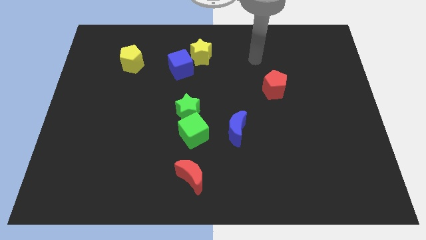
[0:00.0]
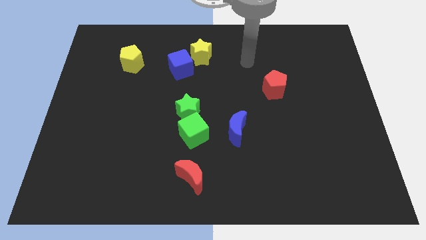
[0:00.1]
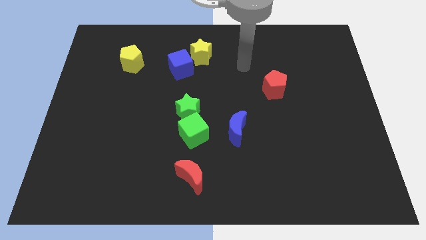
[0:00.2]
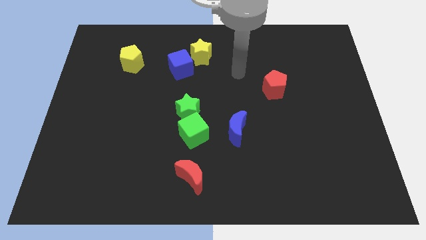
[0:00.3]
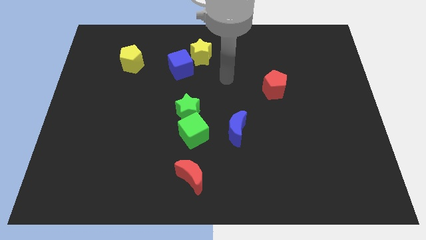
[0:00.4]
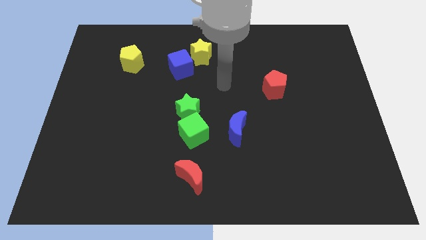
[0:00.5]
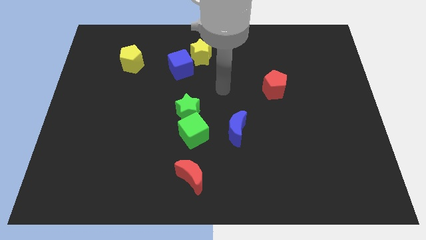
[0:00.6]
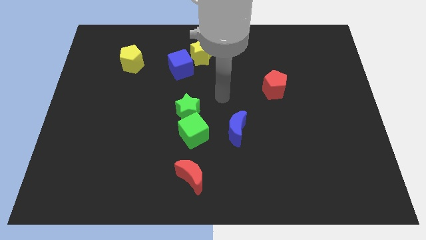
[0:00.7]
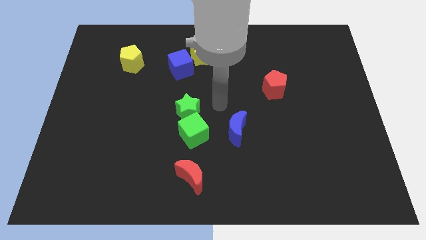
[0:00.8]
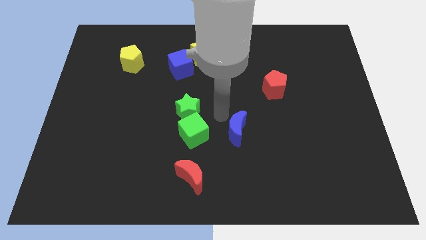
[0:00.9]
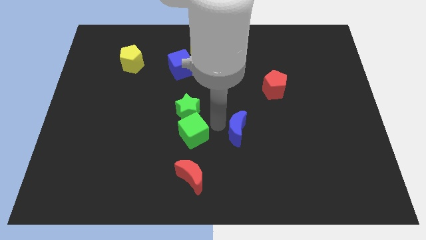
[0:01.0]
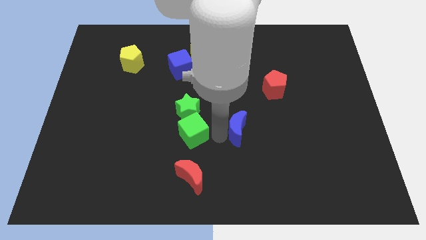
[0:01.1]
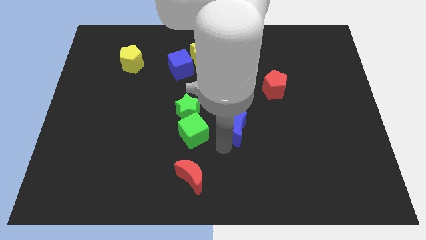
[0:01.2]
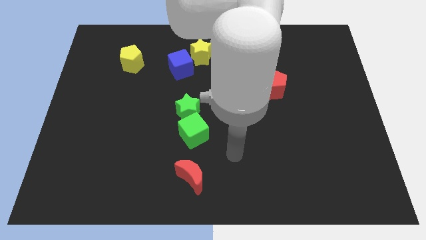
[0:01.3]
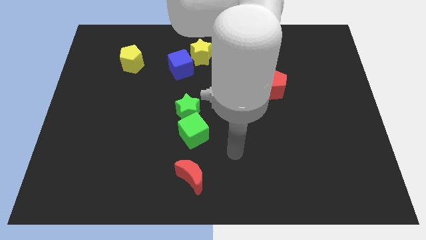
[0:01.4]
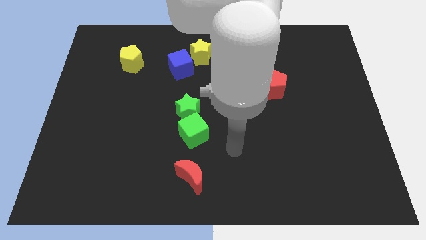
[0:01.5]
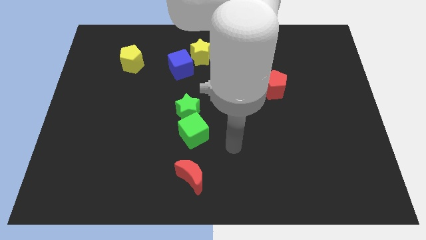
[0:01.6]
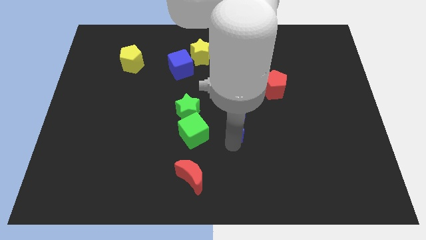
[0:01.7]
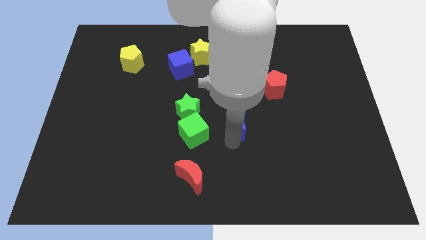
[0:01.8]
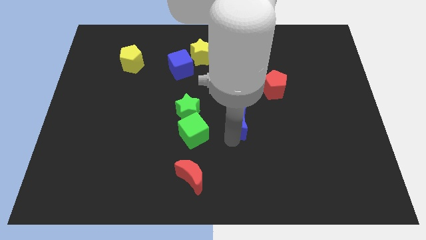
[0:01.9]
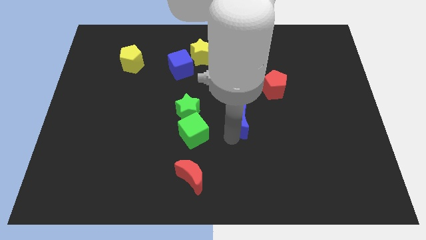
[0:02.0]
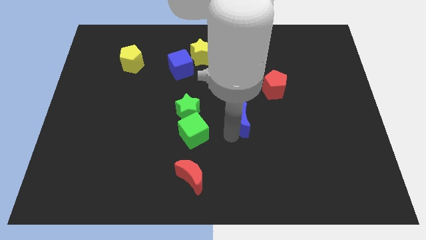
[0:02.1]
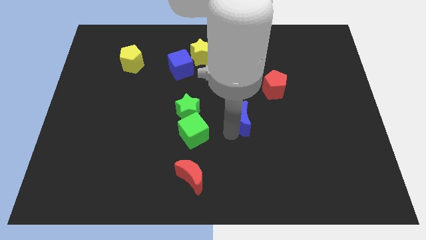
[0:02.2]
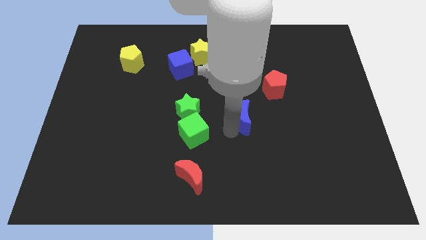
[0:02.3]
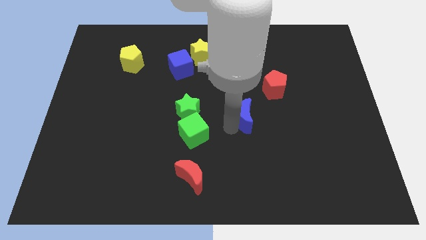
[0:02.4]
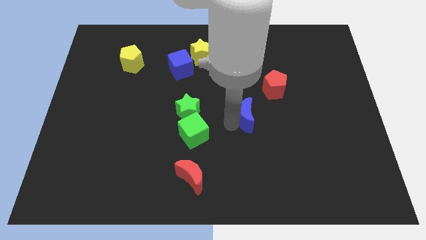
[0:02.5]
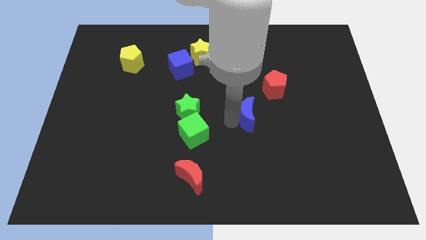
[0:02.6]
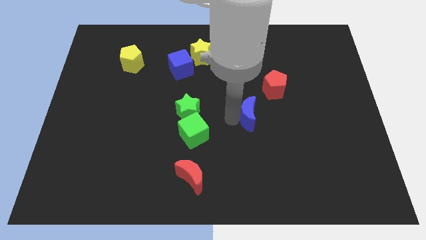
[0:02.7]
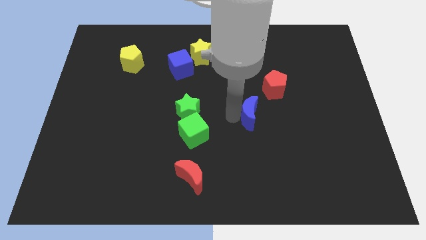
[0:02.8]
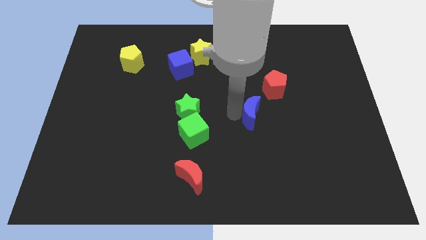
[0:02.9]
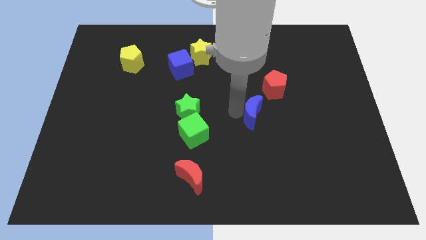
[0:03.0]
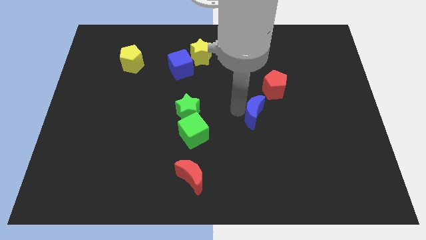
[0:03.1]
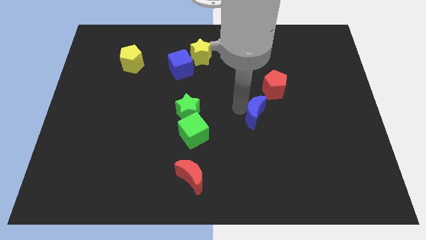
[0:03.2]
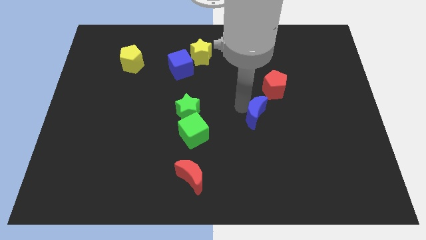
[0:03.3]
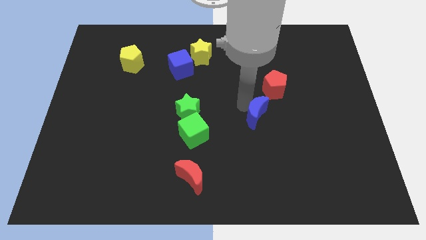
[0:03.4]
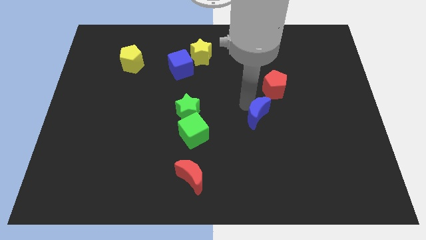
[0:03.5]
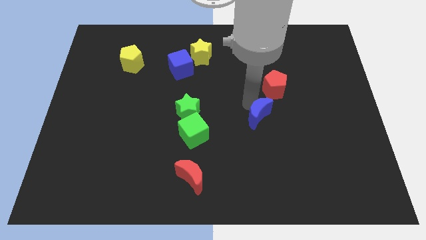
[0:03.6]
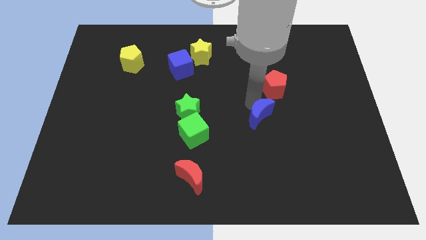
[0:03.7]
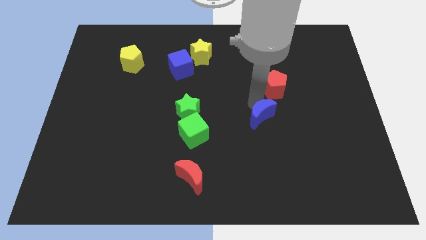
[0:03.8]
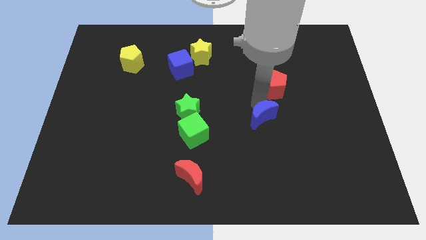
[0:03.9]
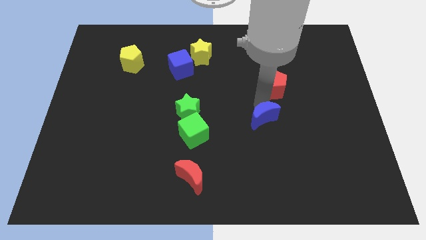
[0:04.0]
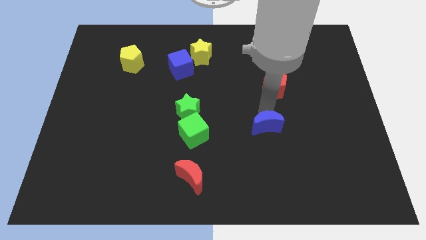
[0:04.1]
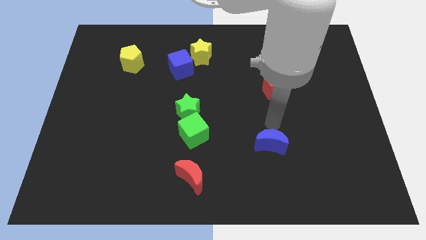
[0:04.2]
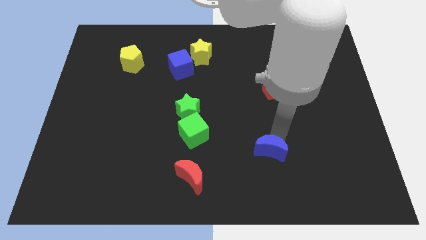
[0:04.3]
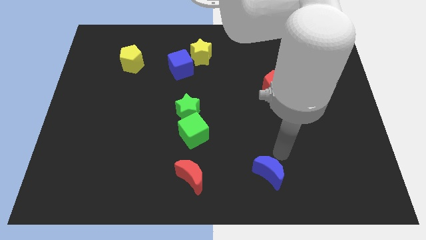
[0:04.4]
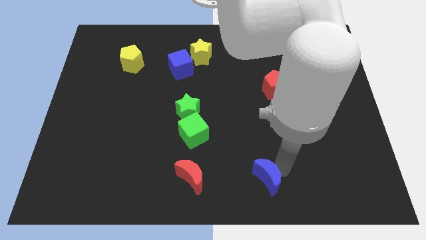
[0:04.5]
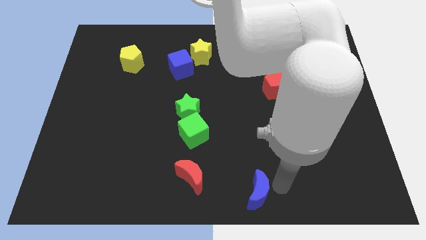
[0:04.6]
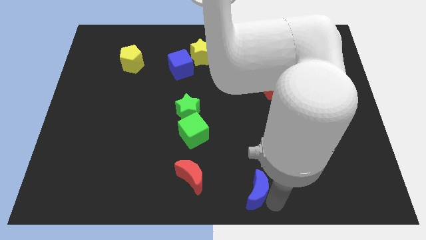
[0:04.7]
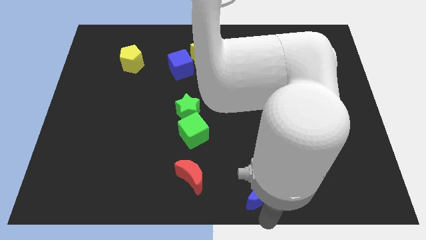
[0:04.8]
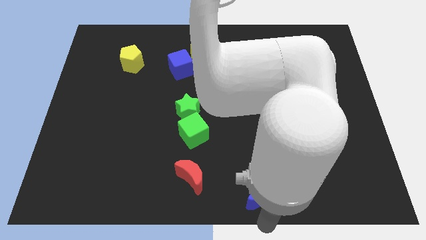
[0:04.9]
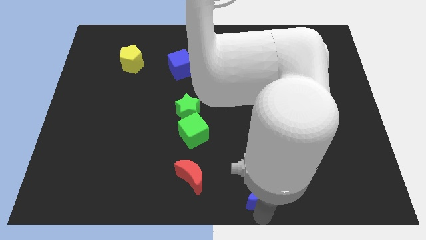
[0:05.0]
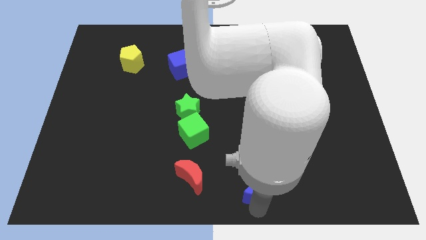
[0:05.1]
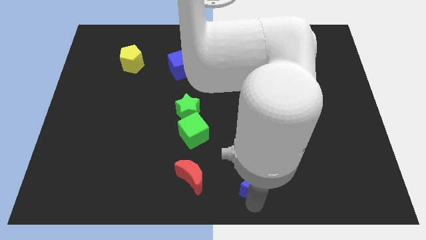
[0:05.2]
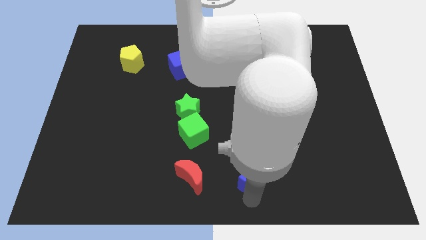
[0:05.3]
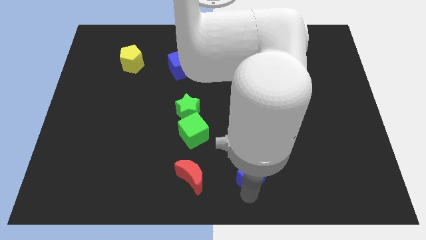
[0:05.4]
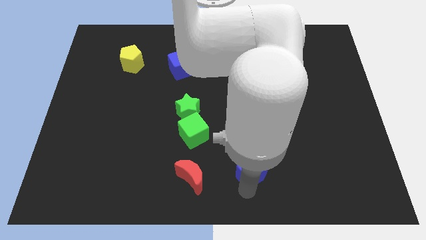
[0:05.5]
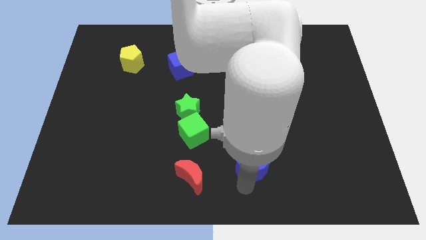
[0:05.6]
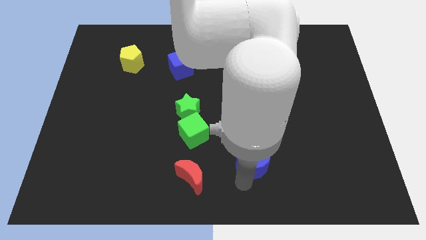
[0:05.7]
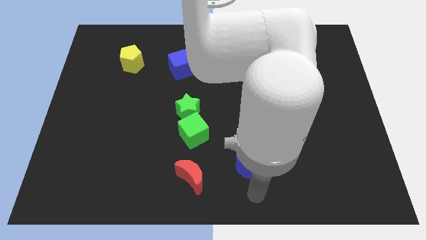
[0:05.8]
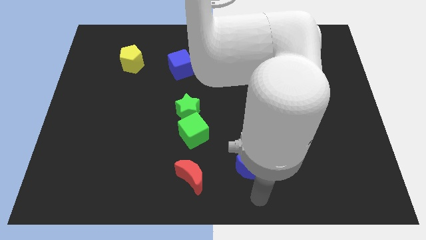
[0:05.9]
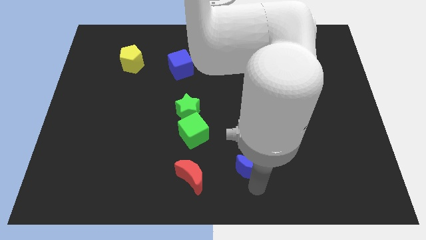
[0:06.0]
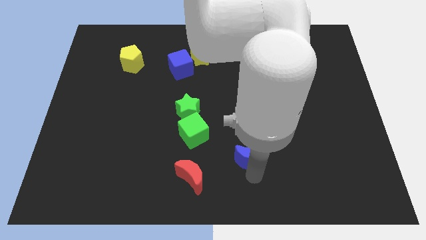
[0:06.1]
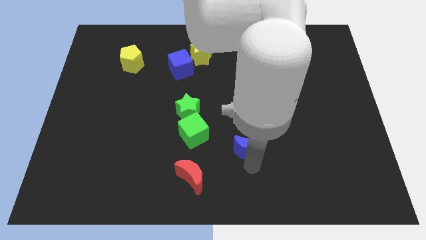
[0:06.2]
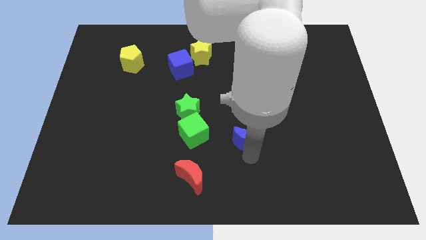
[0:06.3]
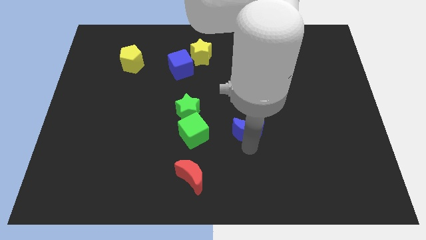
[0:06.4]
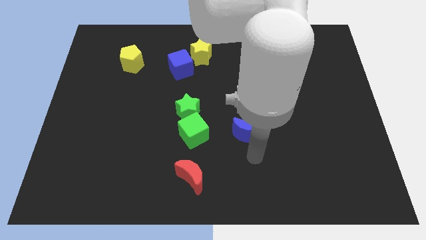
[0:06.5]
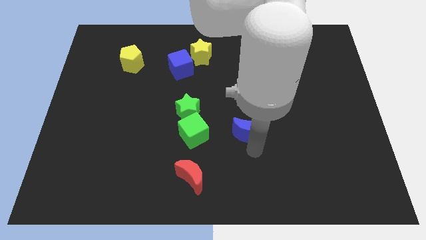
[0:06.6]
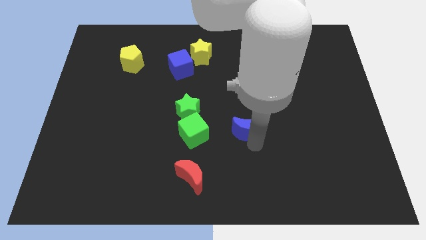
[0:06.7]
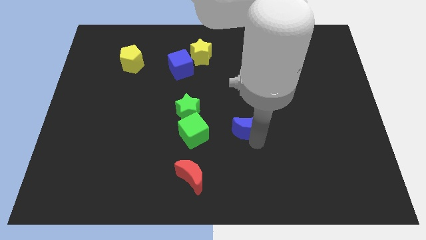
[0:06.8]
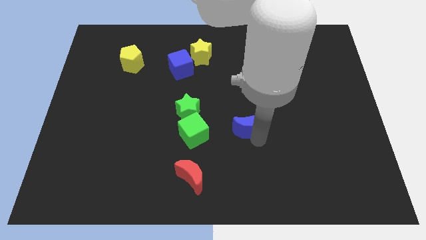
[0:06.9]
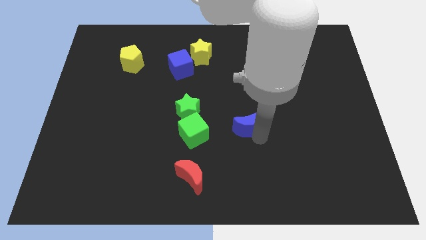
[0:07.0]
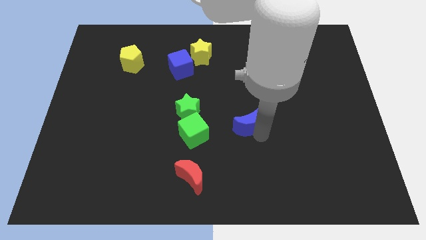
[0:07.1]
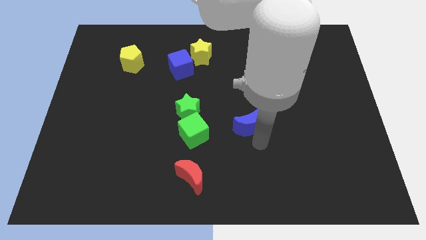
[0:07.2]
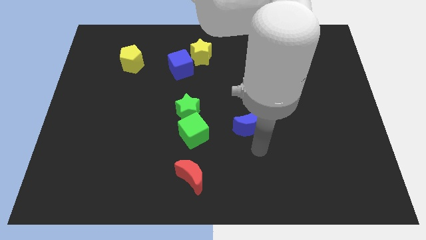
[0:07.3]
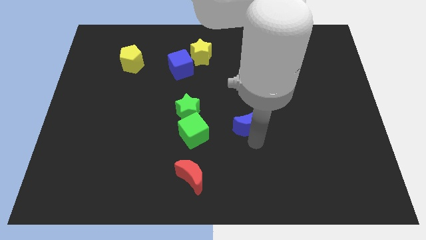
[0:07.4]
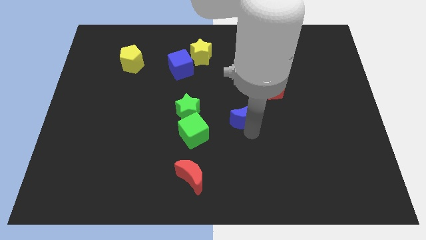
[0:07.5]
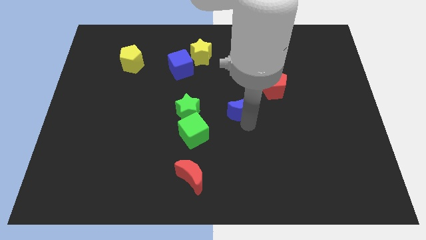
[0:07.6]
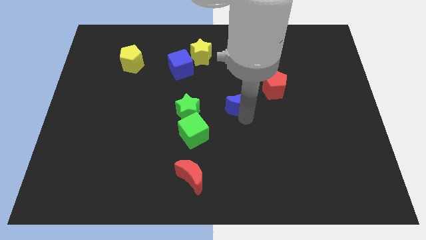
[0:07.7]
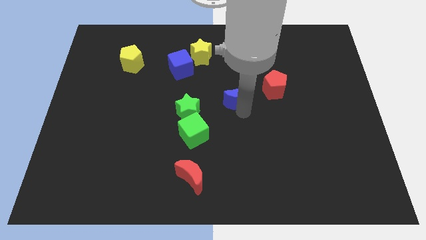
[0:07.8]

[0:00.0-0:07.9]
push the blue moon left of the red pentagon

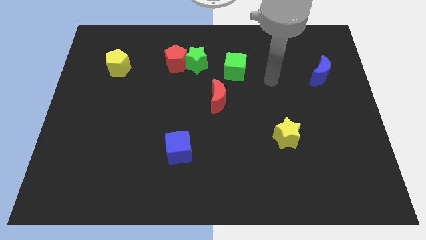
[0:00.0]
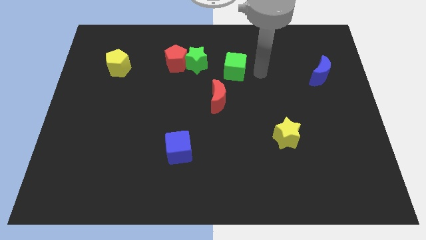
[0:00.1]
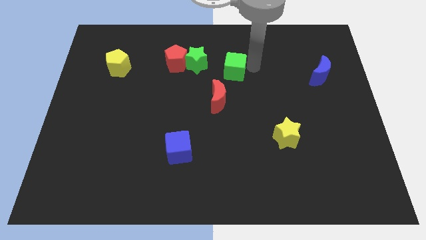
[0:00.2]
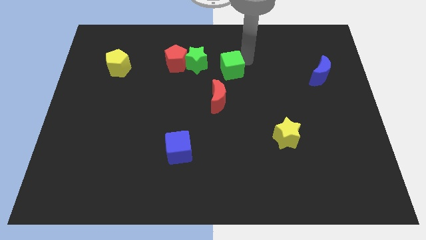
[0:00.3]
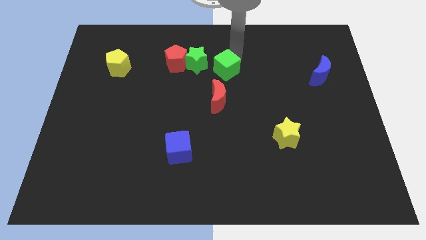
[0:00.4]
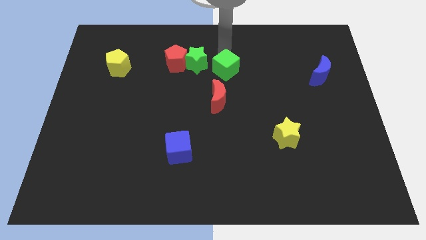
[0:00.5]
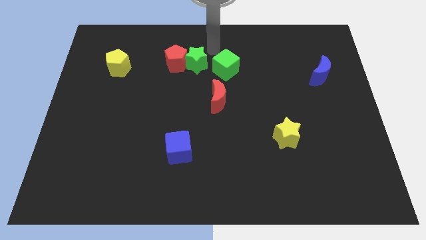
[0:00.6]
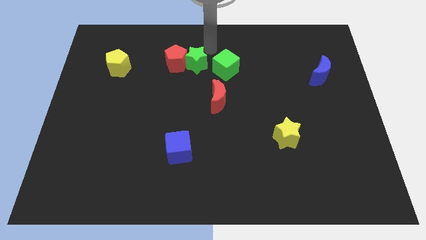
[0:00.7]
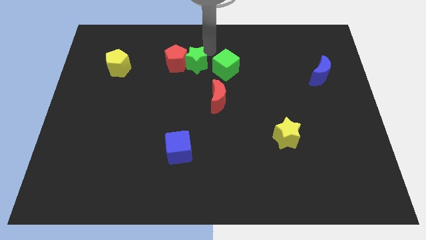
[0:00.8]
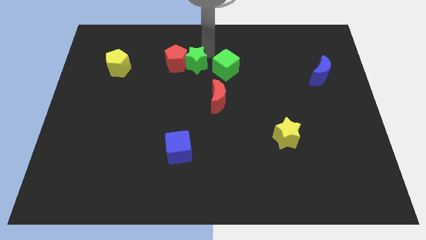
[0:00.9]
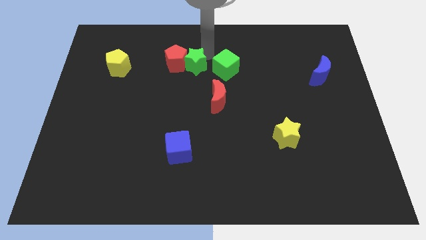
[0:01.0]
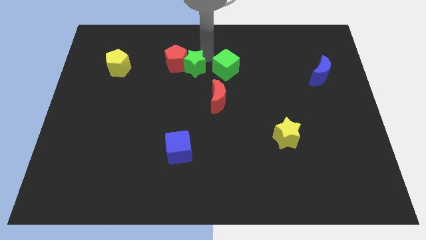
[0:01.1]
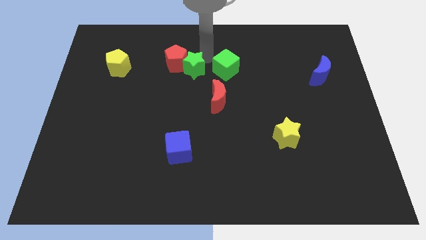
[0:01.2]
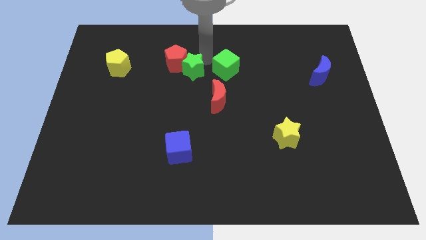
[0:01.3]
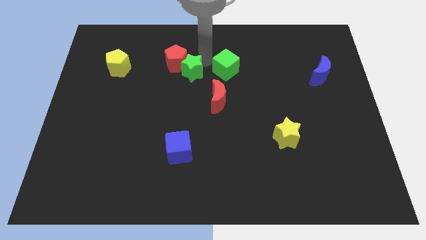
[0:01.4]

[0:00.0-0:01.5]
slide the green star to the bottom side of the red pentagon
